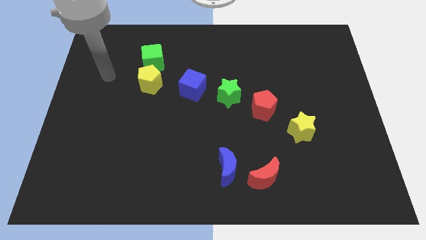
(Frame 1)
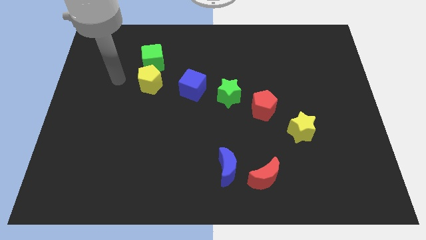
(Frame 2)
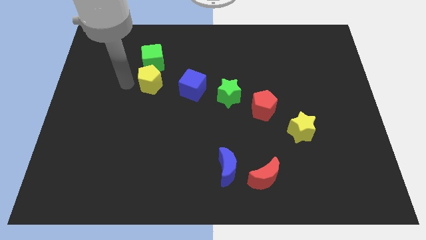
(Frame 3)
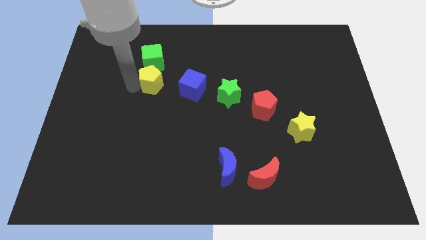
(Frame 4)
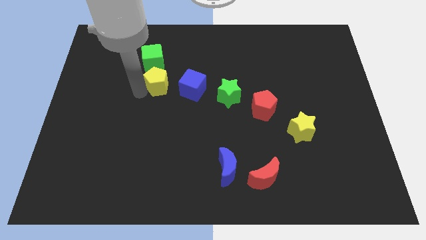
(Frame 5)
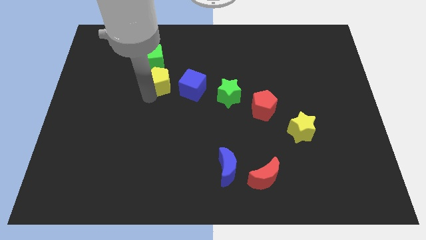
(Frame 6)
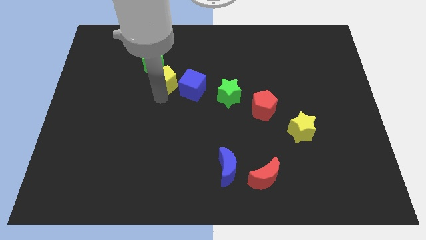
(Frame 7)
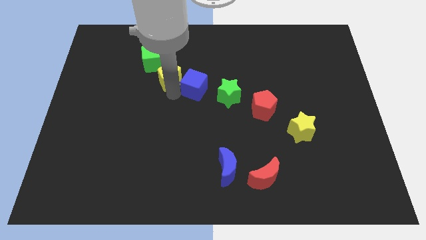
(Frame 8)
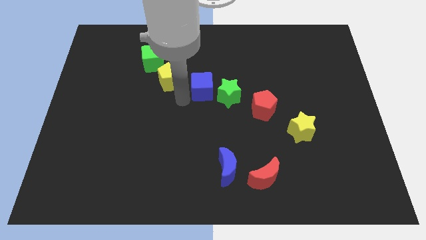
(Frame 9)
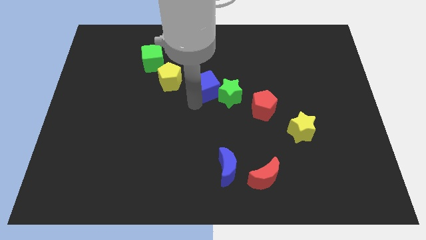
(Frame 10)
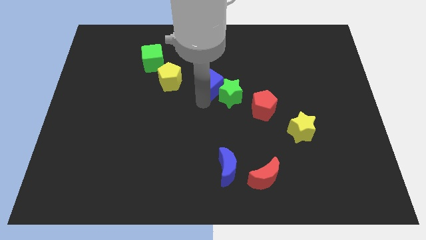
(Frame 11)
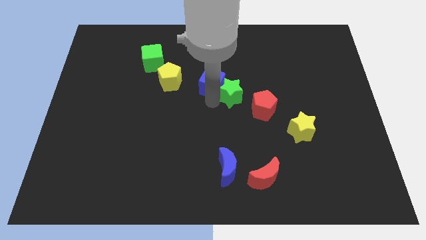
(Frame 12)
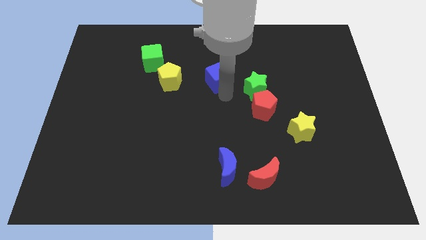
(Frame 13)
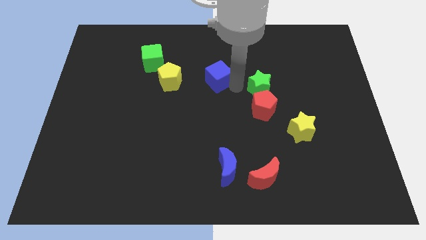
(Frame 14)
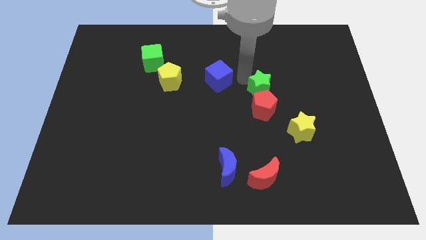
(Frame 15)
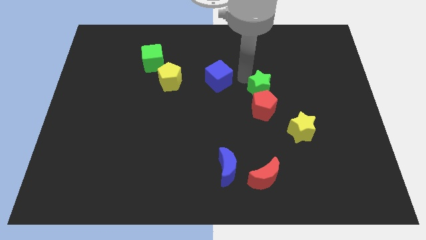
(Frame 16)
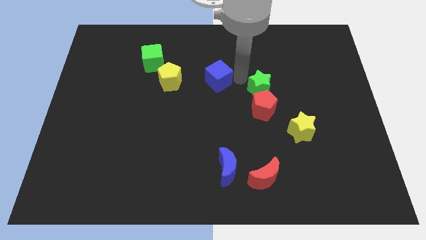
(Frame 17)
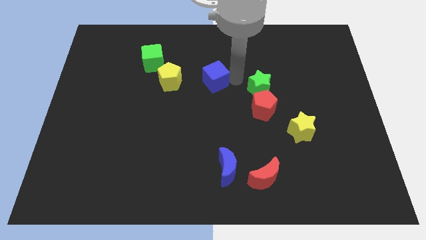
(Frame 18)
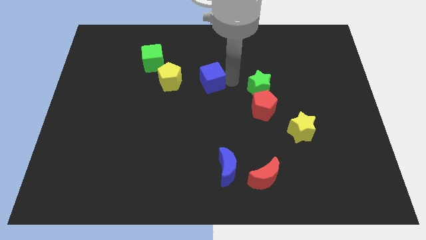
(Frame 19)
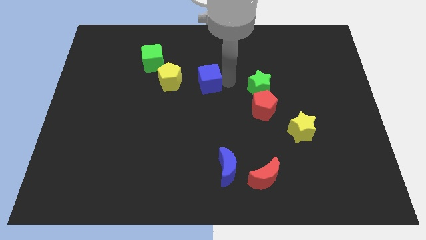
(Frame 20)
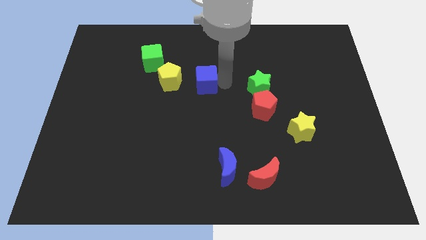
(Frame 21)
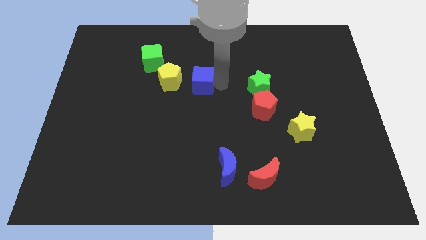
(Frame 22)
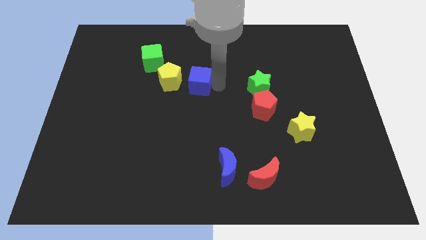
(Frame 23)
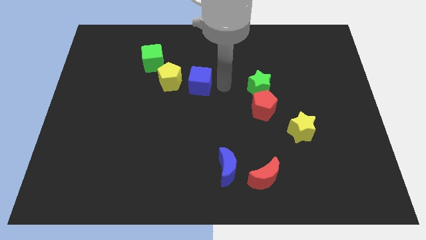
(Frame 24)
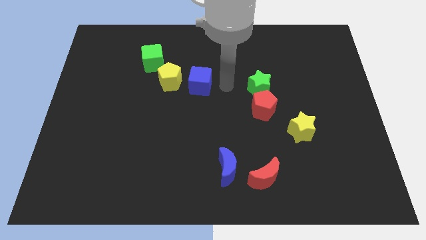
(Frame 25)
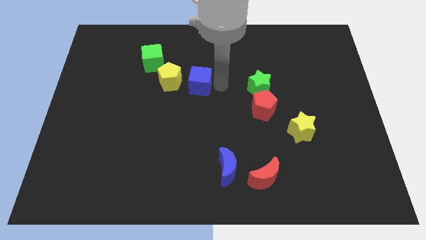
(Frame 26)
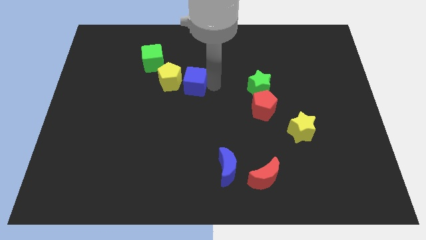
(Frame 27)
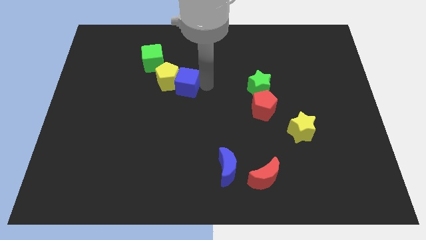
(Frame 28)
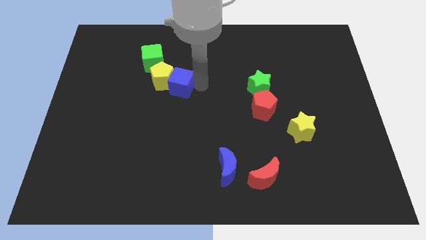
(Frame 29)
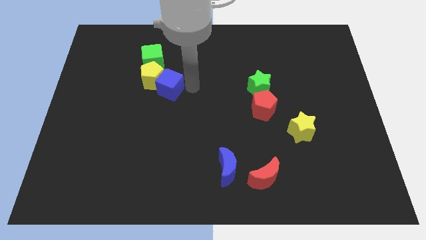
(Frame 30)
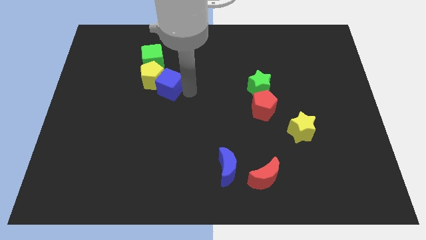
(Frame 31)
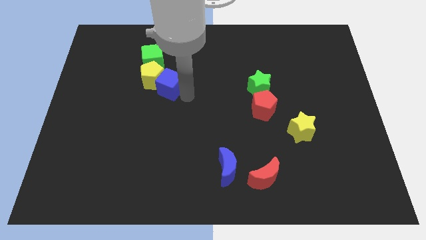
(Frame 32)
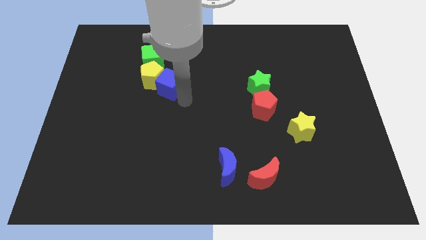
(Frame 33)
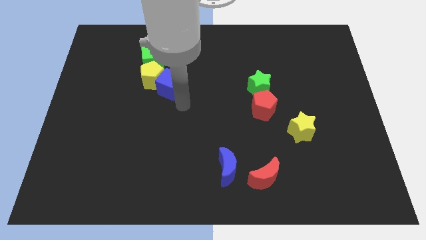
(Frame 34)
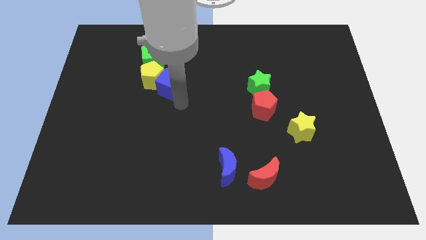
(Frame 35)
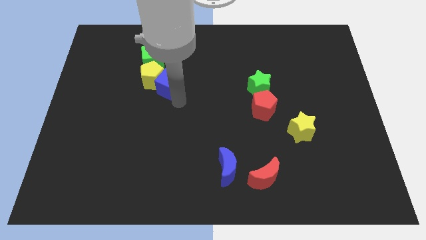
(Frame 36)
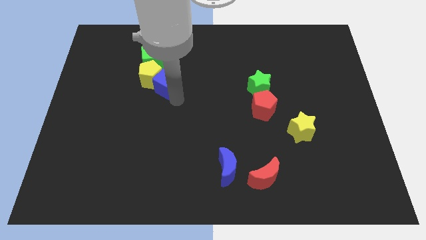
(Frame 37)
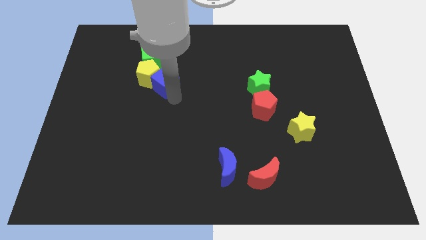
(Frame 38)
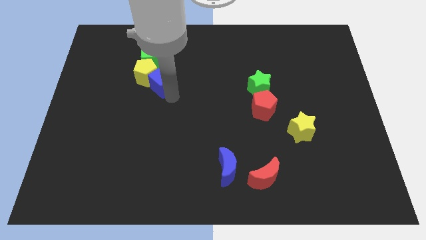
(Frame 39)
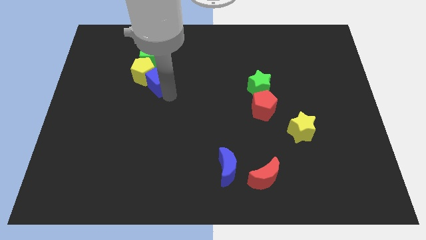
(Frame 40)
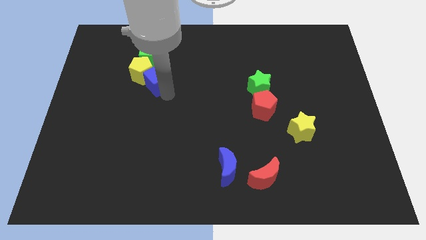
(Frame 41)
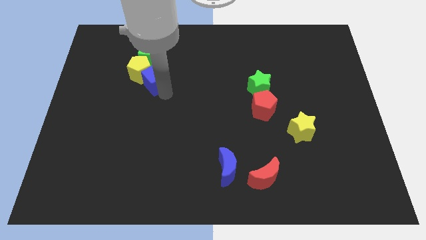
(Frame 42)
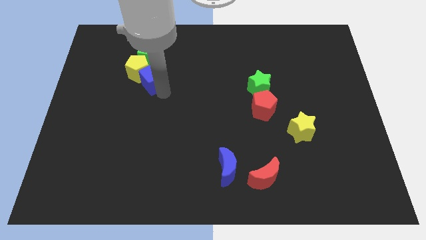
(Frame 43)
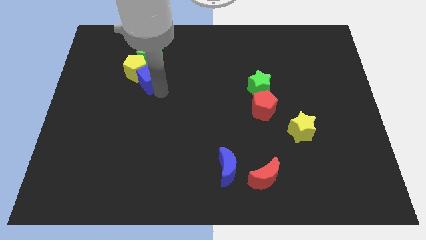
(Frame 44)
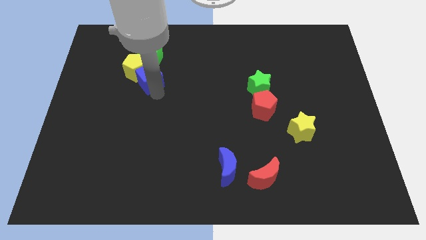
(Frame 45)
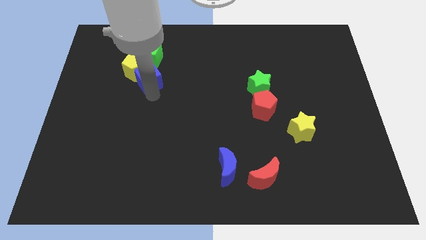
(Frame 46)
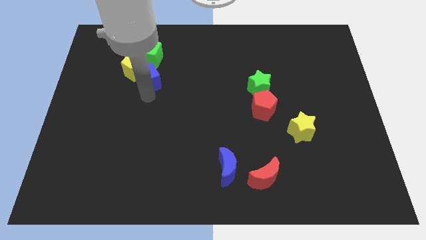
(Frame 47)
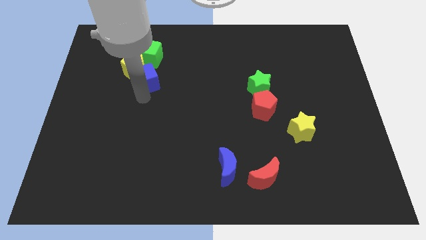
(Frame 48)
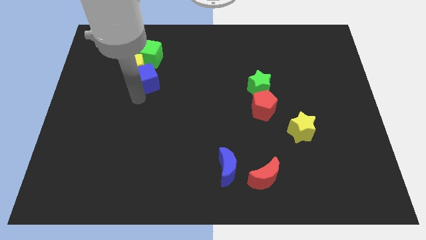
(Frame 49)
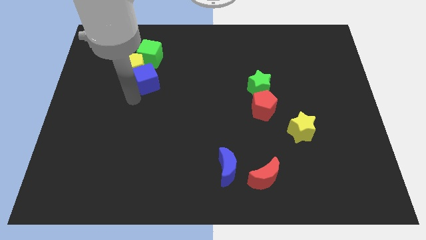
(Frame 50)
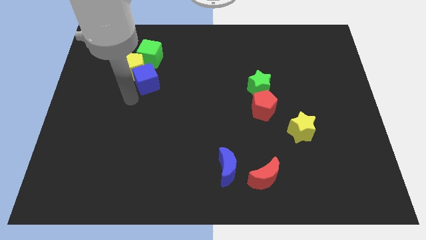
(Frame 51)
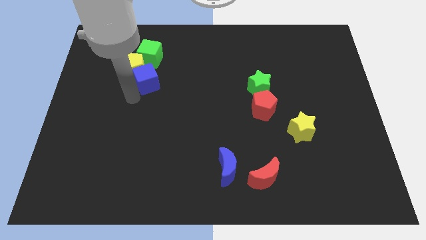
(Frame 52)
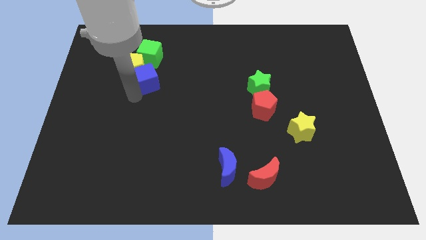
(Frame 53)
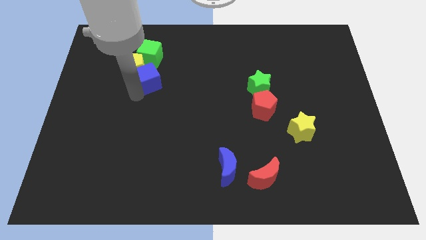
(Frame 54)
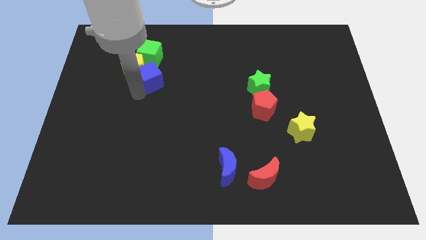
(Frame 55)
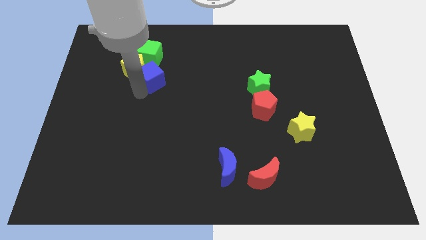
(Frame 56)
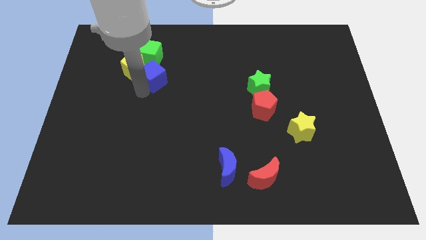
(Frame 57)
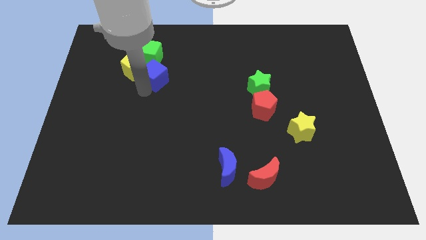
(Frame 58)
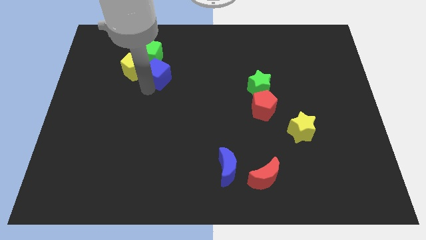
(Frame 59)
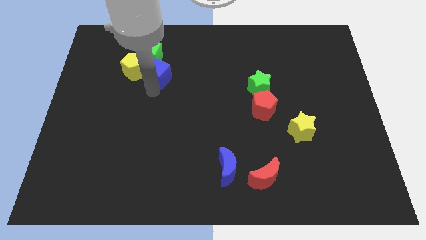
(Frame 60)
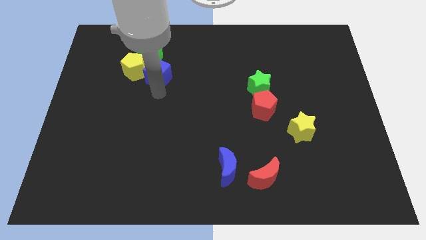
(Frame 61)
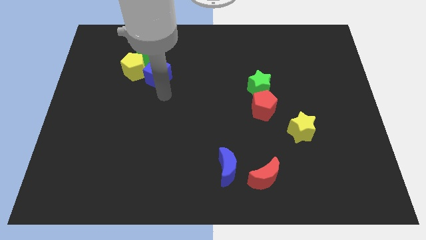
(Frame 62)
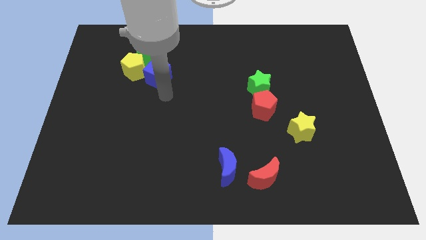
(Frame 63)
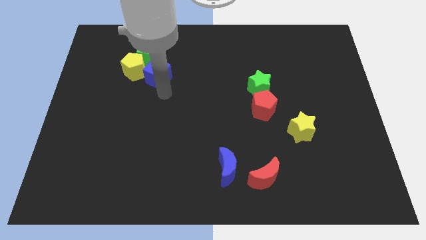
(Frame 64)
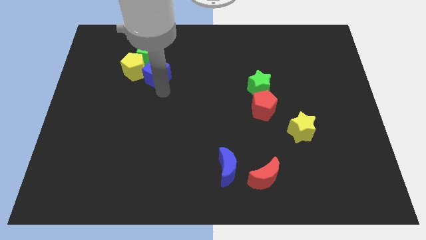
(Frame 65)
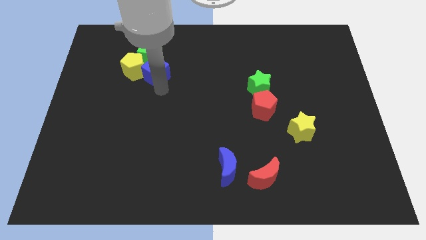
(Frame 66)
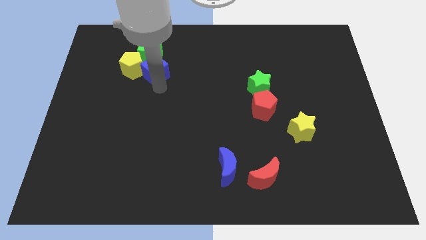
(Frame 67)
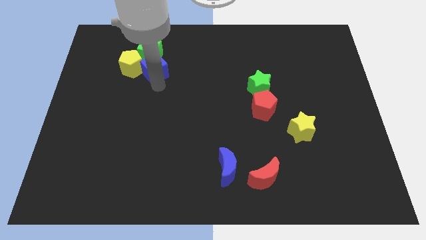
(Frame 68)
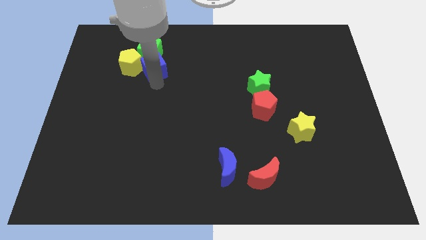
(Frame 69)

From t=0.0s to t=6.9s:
move the blue cube to the green cube
